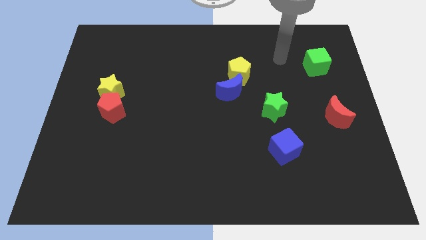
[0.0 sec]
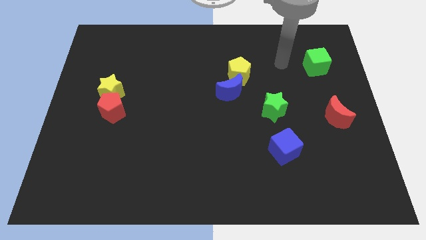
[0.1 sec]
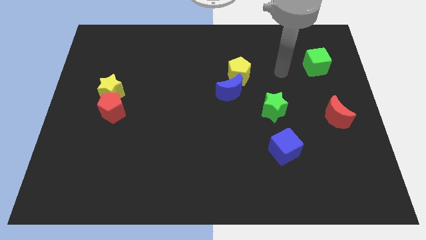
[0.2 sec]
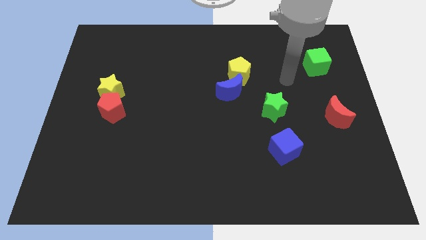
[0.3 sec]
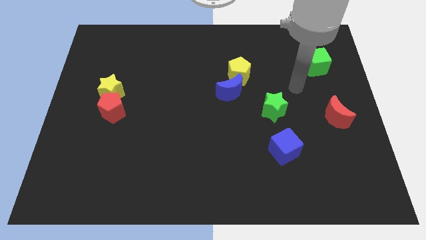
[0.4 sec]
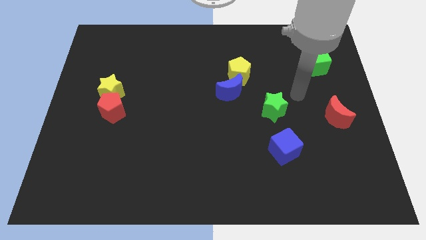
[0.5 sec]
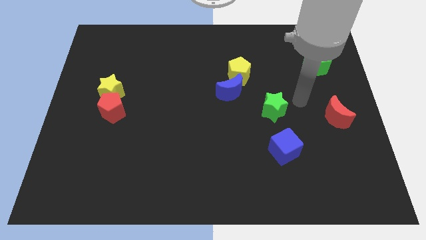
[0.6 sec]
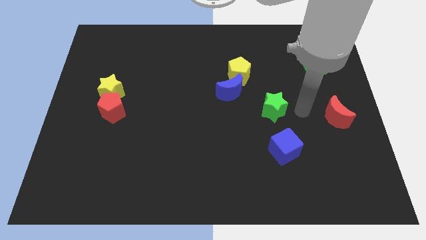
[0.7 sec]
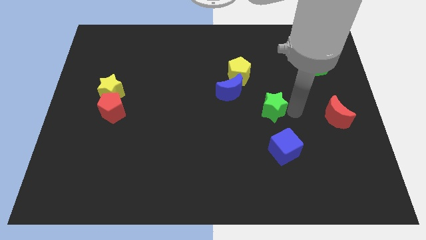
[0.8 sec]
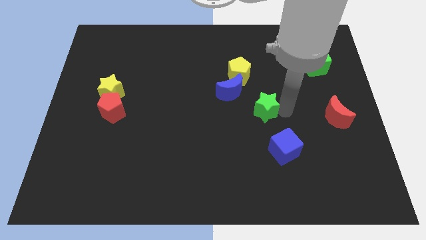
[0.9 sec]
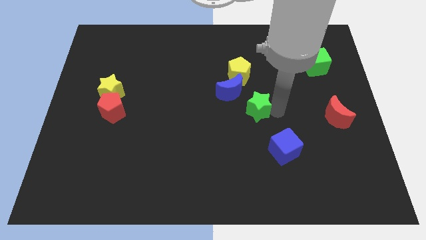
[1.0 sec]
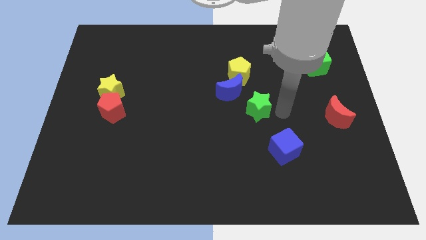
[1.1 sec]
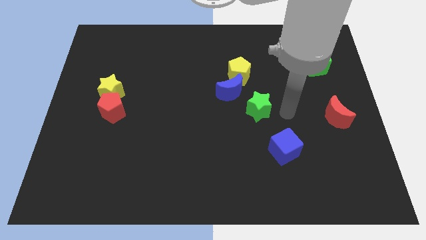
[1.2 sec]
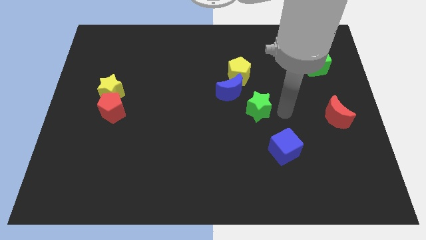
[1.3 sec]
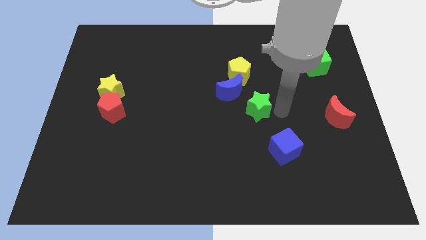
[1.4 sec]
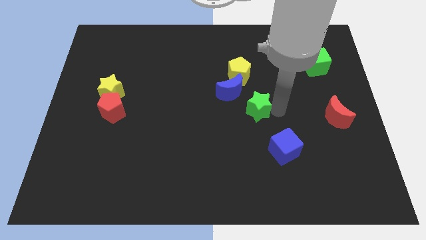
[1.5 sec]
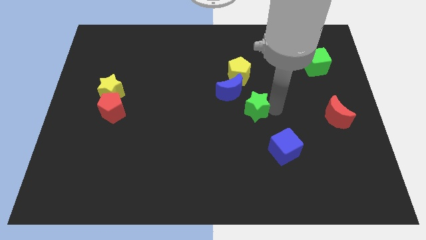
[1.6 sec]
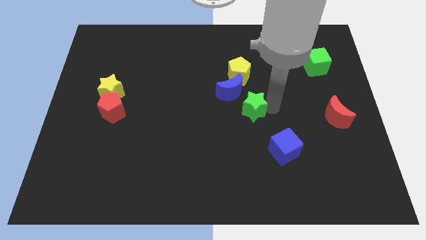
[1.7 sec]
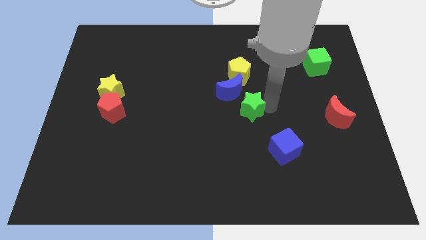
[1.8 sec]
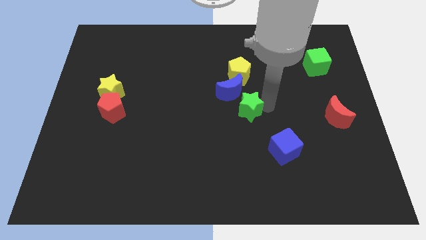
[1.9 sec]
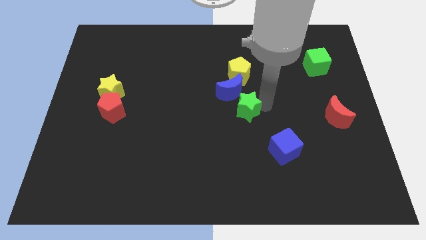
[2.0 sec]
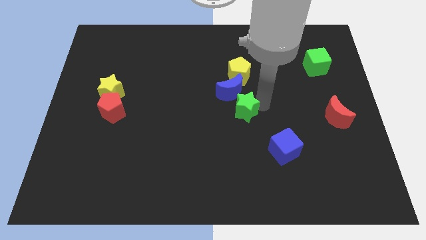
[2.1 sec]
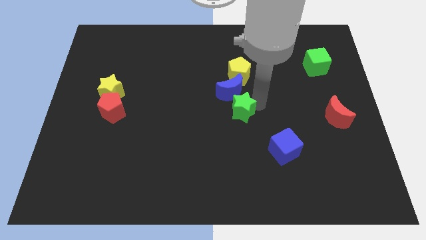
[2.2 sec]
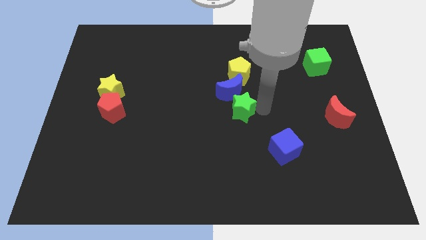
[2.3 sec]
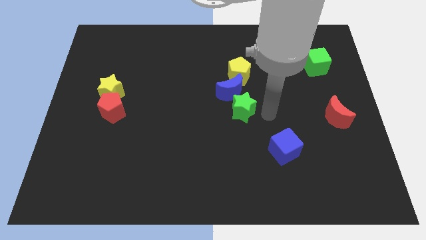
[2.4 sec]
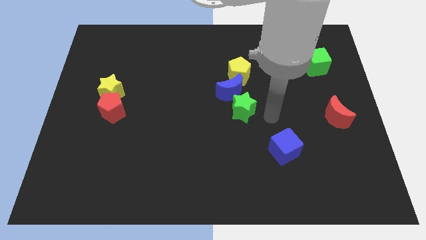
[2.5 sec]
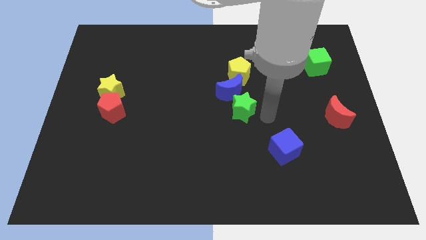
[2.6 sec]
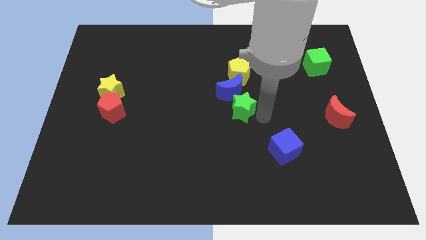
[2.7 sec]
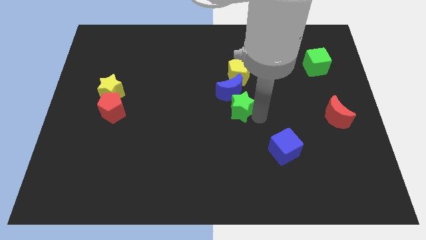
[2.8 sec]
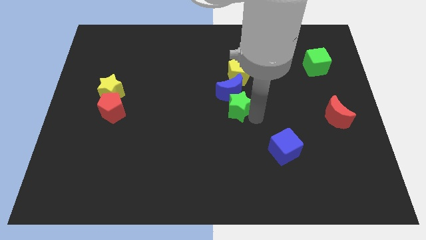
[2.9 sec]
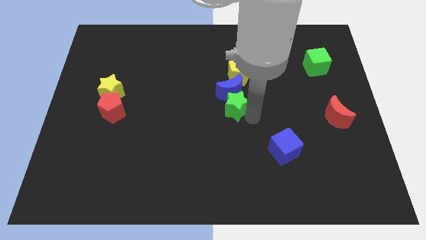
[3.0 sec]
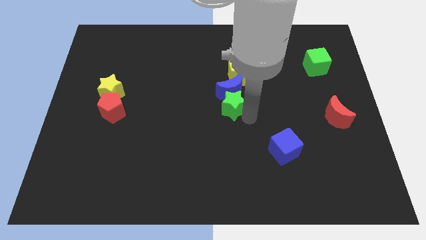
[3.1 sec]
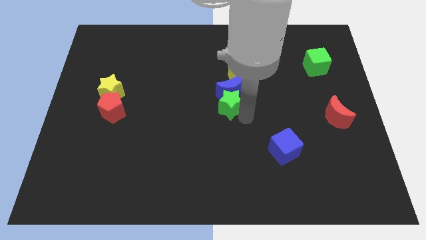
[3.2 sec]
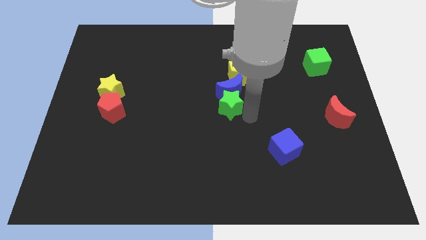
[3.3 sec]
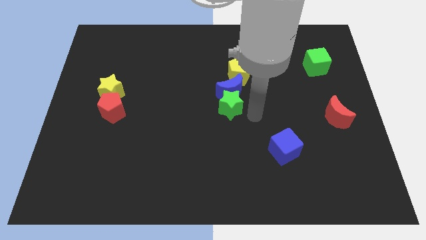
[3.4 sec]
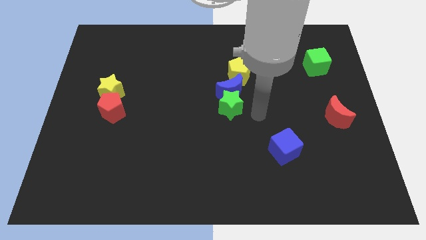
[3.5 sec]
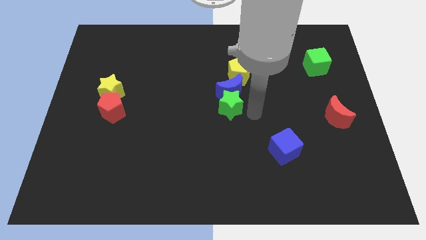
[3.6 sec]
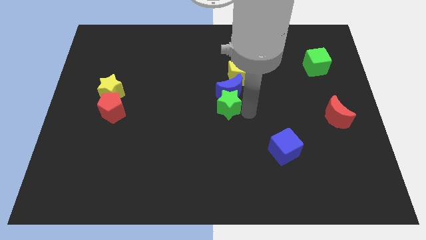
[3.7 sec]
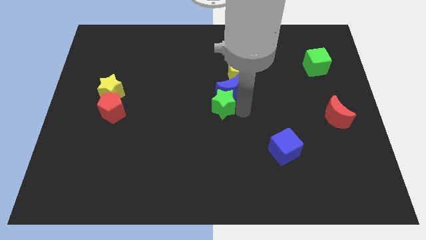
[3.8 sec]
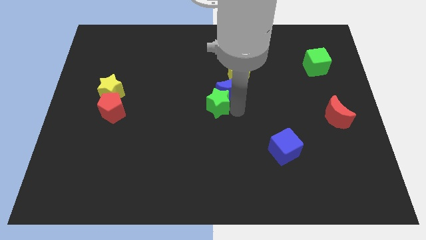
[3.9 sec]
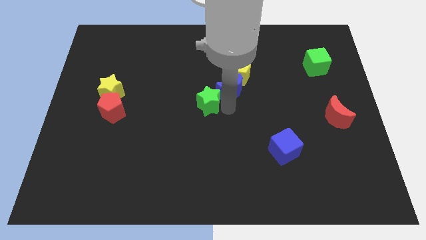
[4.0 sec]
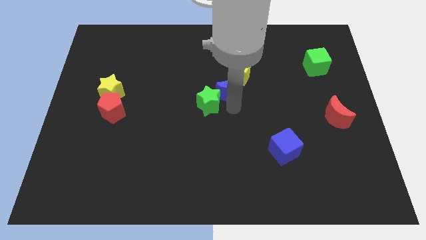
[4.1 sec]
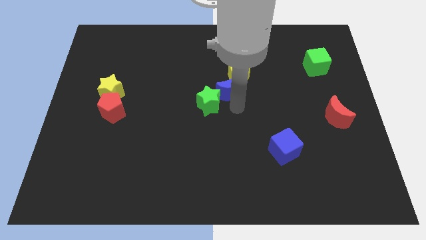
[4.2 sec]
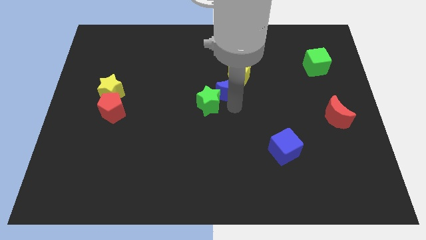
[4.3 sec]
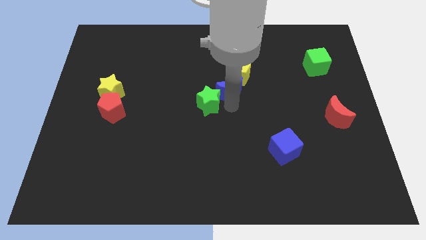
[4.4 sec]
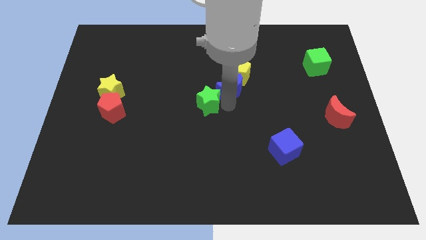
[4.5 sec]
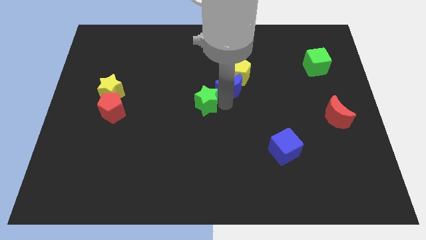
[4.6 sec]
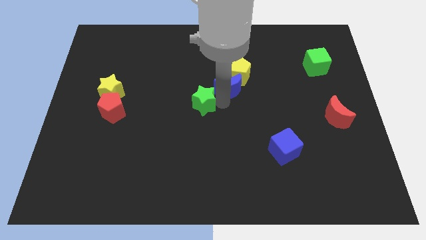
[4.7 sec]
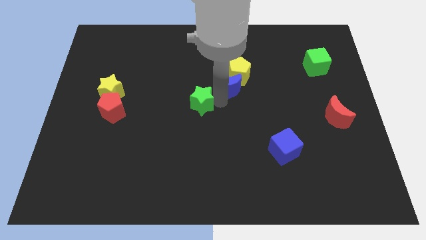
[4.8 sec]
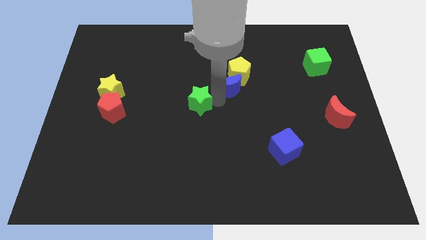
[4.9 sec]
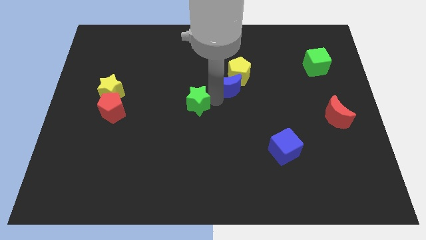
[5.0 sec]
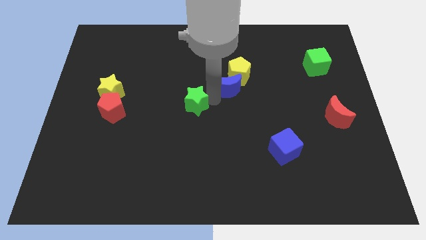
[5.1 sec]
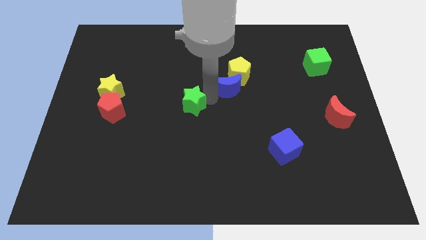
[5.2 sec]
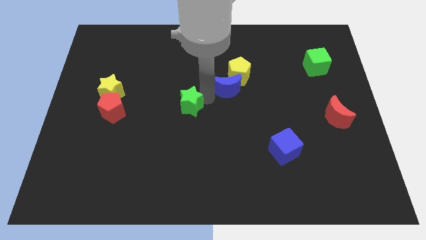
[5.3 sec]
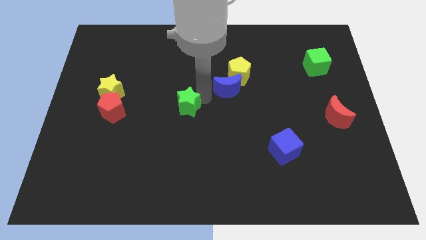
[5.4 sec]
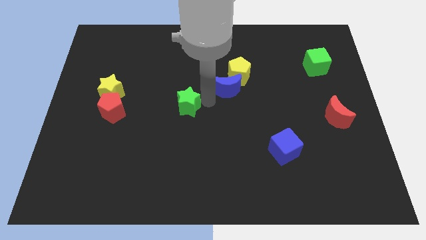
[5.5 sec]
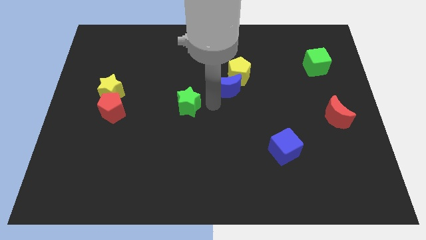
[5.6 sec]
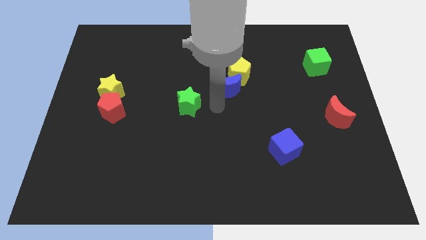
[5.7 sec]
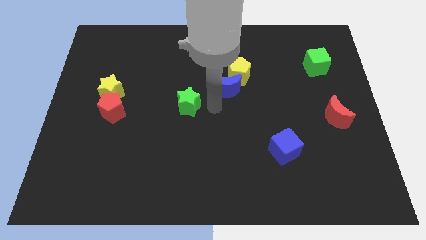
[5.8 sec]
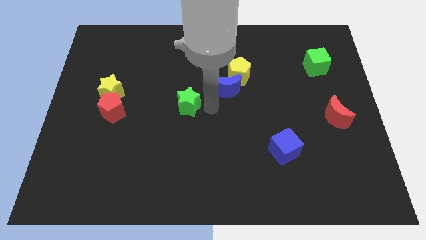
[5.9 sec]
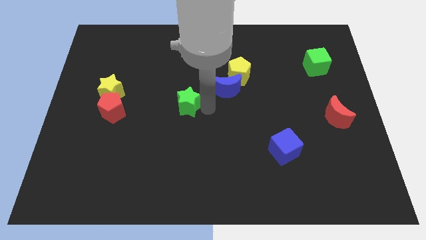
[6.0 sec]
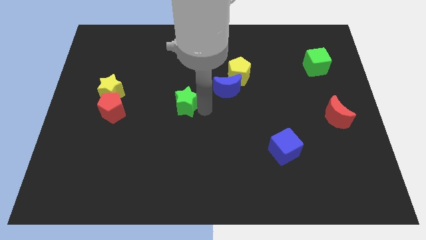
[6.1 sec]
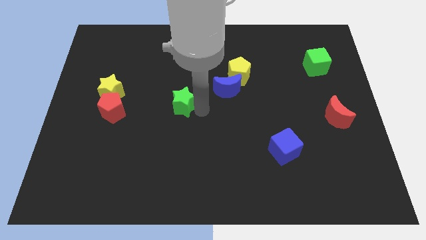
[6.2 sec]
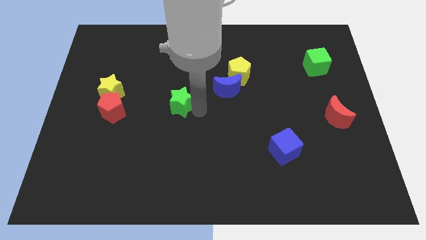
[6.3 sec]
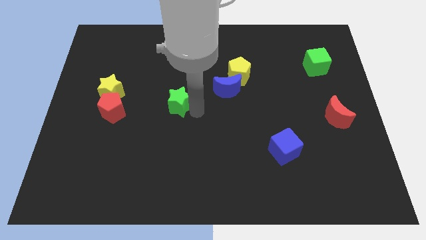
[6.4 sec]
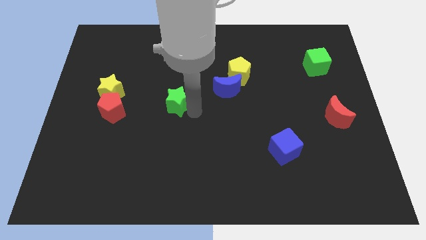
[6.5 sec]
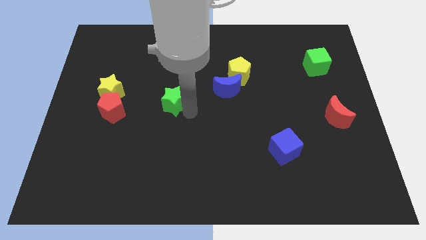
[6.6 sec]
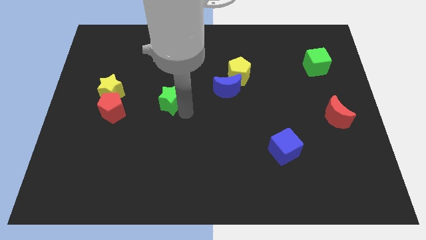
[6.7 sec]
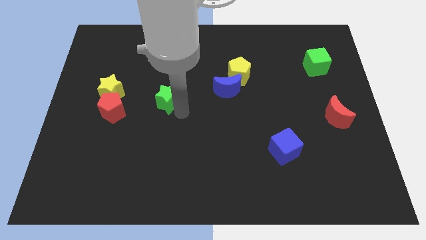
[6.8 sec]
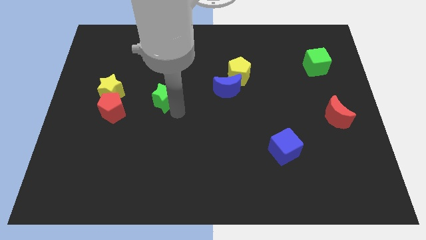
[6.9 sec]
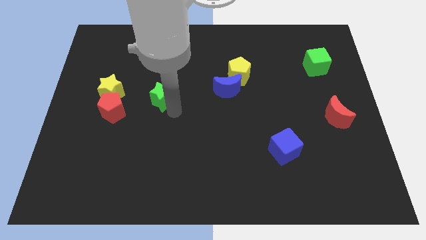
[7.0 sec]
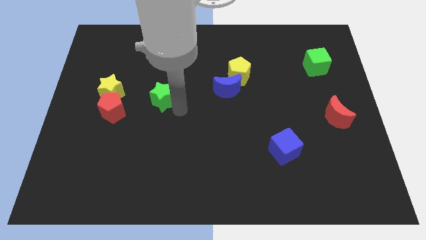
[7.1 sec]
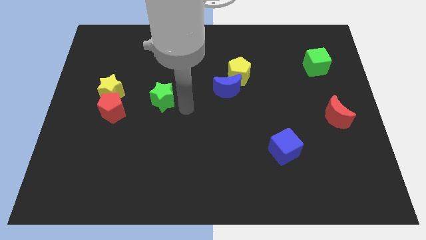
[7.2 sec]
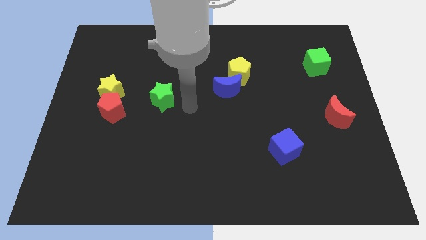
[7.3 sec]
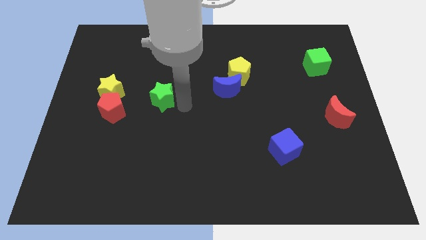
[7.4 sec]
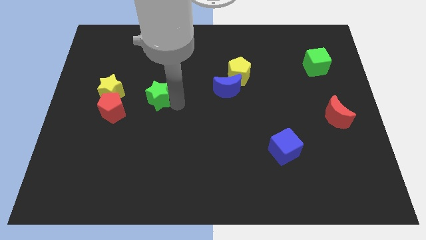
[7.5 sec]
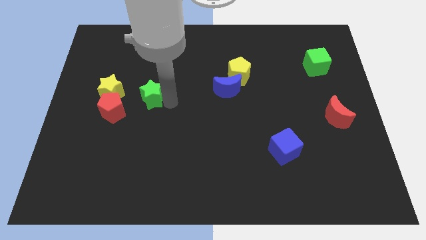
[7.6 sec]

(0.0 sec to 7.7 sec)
move the green star diagonally up and to the right of the red pentagon

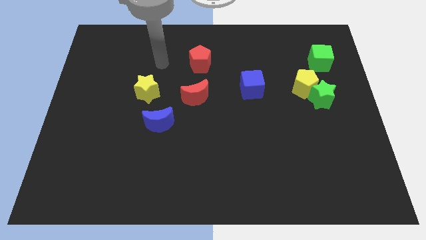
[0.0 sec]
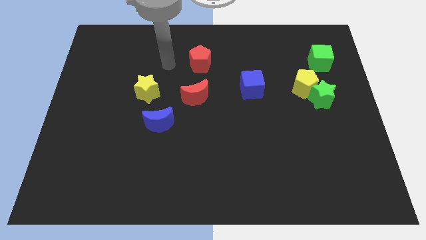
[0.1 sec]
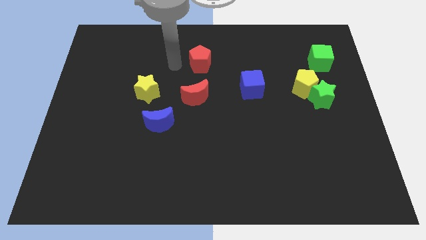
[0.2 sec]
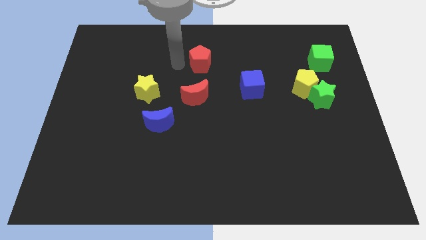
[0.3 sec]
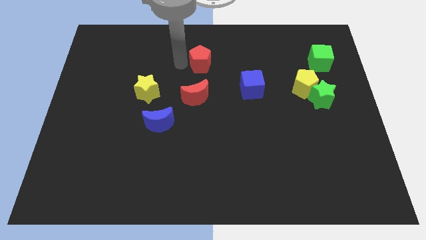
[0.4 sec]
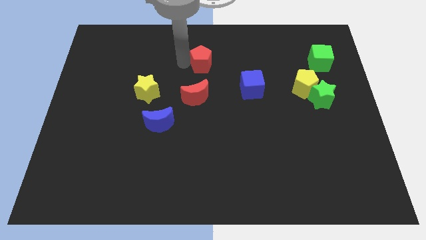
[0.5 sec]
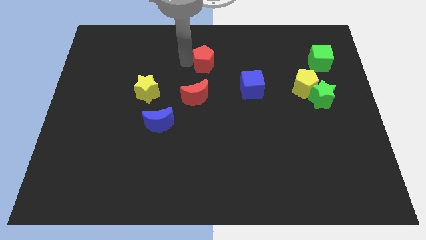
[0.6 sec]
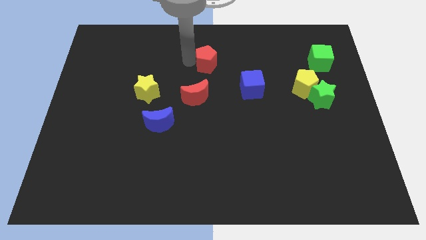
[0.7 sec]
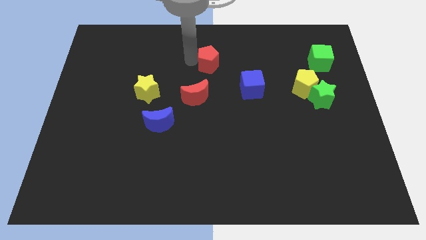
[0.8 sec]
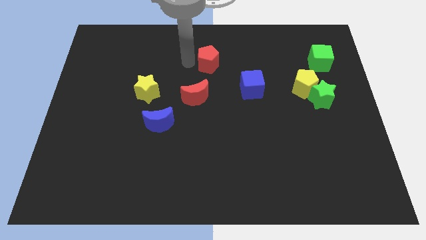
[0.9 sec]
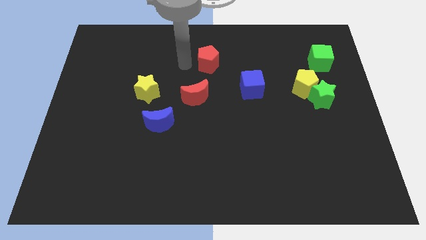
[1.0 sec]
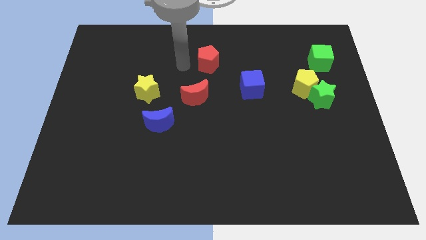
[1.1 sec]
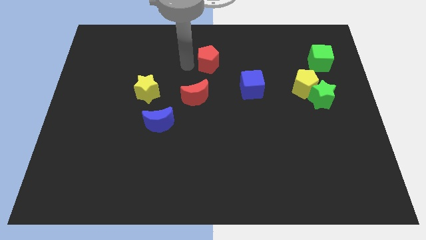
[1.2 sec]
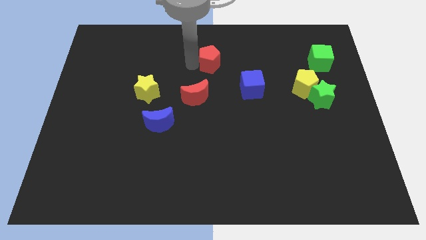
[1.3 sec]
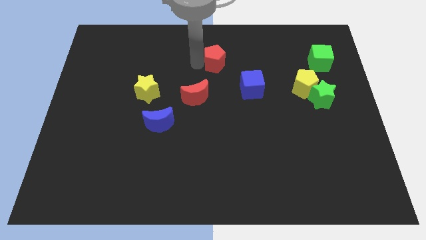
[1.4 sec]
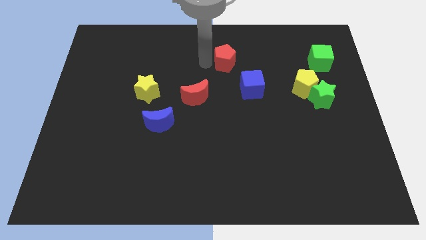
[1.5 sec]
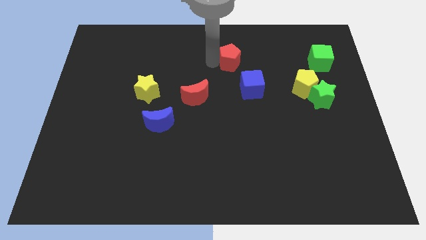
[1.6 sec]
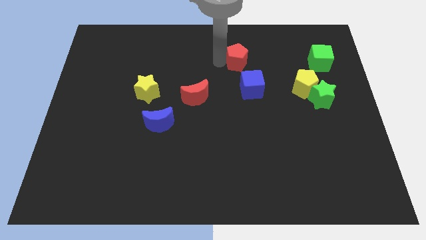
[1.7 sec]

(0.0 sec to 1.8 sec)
put the red pentagon above the blue cube
